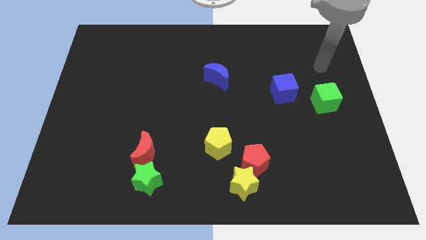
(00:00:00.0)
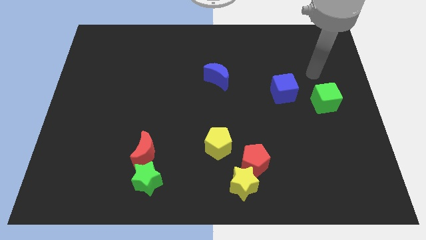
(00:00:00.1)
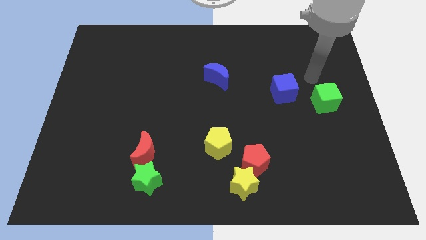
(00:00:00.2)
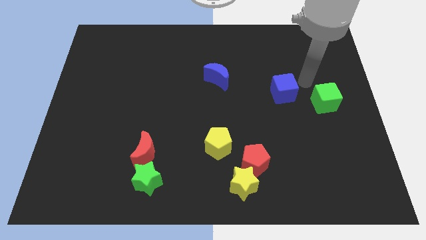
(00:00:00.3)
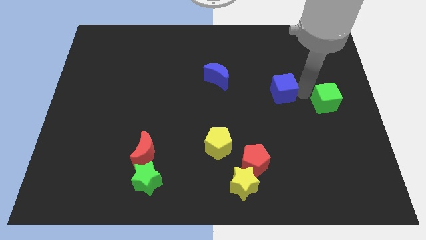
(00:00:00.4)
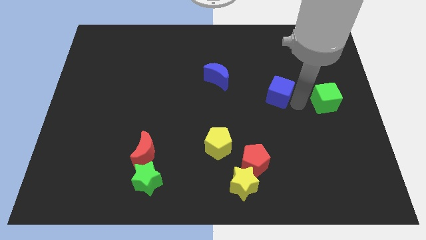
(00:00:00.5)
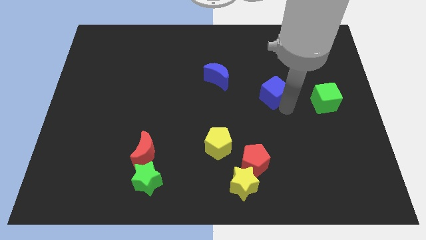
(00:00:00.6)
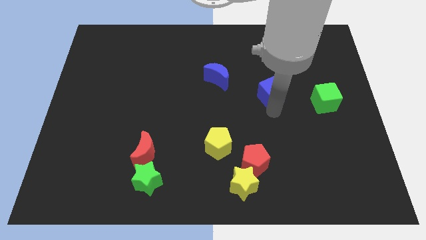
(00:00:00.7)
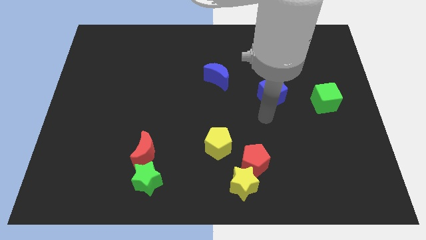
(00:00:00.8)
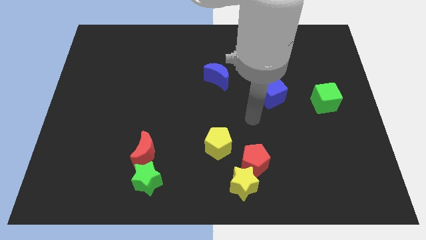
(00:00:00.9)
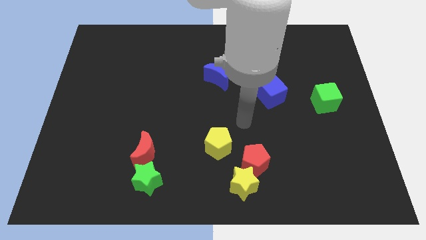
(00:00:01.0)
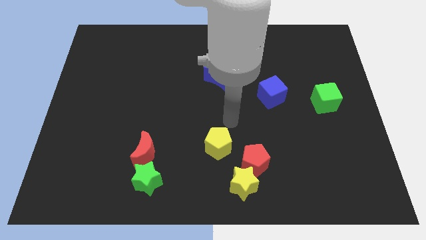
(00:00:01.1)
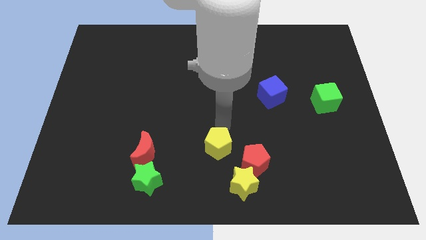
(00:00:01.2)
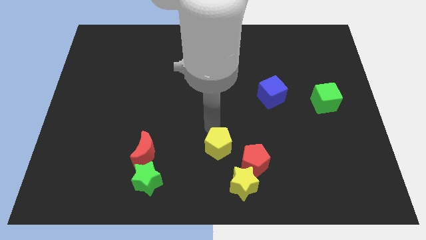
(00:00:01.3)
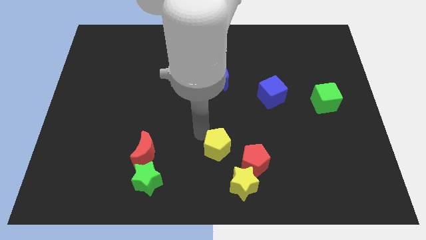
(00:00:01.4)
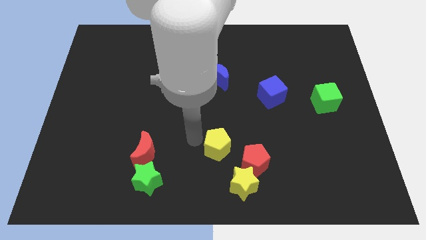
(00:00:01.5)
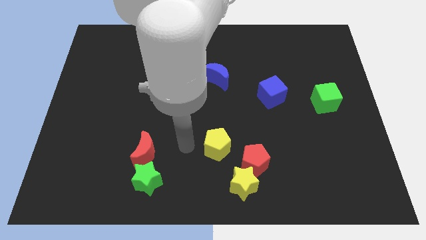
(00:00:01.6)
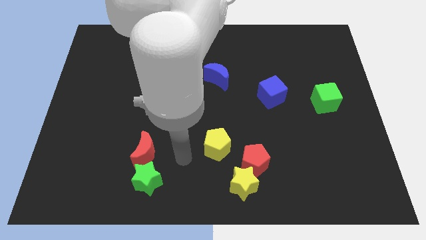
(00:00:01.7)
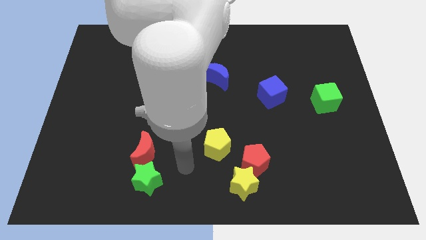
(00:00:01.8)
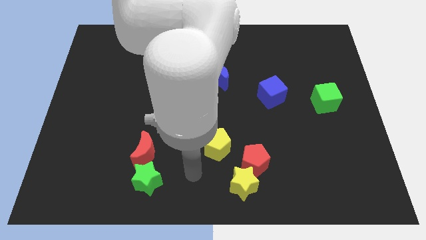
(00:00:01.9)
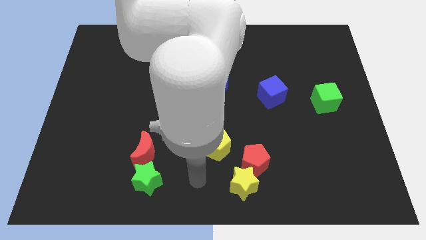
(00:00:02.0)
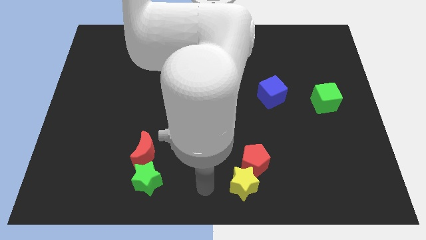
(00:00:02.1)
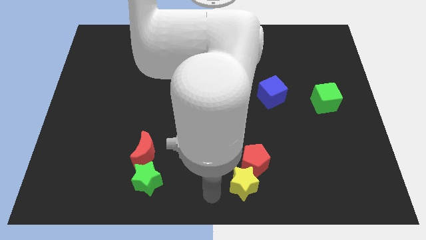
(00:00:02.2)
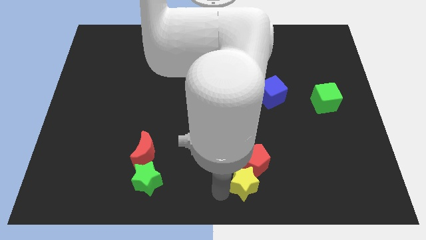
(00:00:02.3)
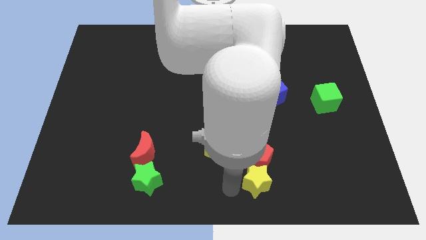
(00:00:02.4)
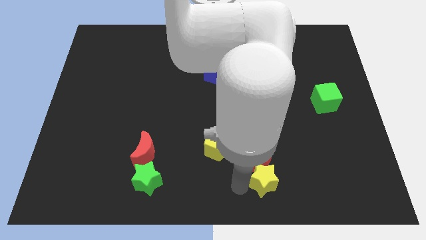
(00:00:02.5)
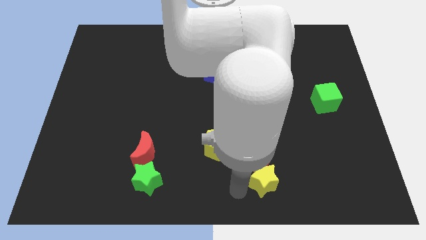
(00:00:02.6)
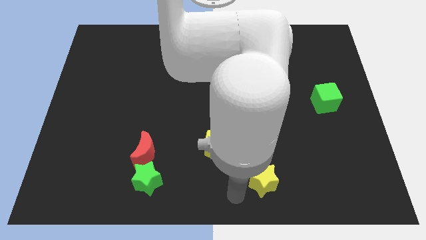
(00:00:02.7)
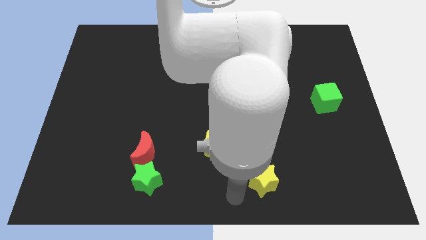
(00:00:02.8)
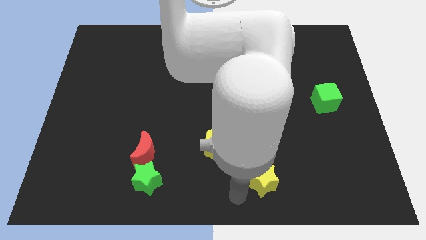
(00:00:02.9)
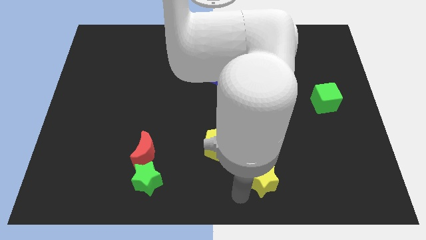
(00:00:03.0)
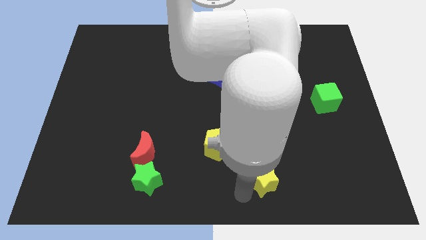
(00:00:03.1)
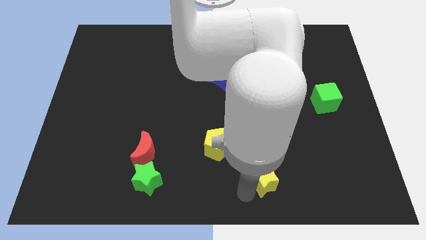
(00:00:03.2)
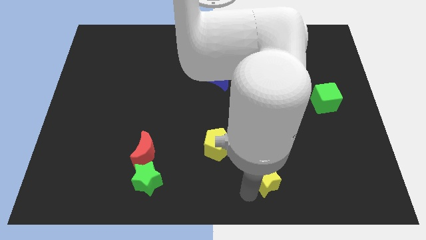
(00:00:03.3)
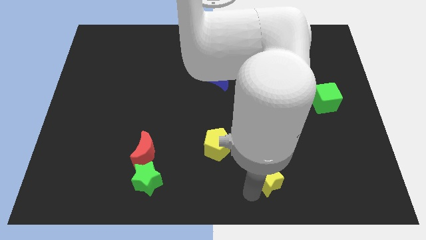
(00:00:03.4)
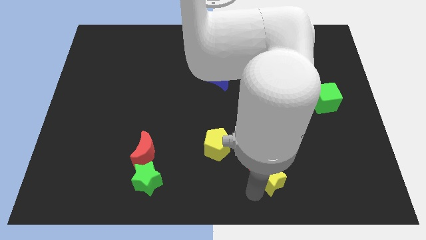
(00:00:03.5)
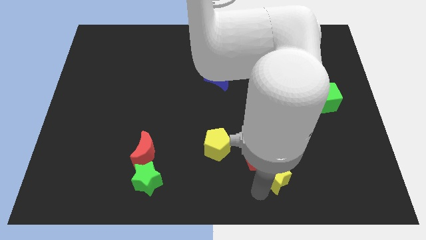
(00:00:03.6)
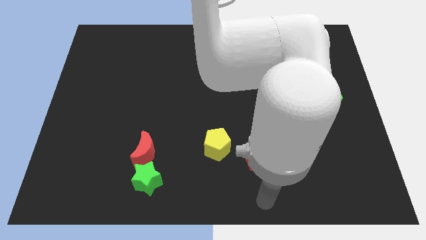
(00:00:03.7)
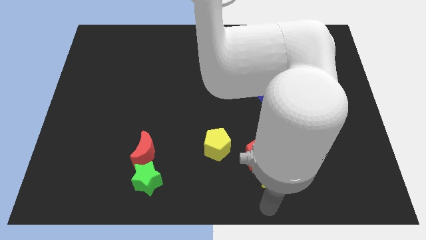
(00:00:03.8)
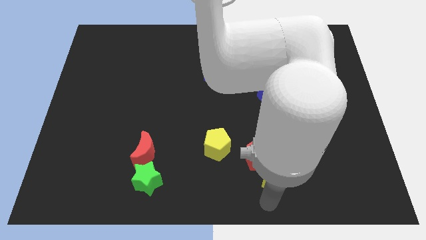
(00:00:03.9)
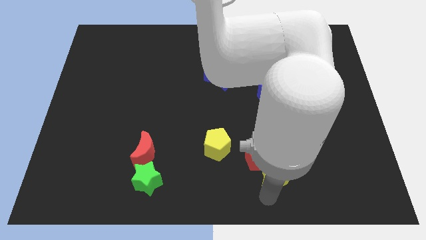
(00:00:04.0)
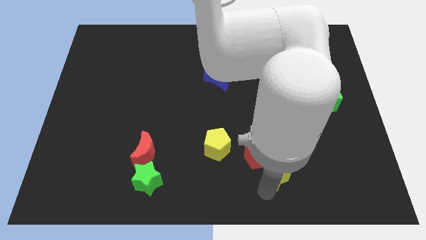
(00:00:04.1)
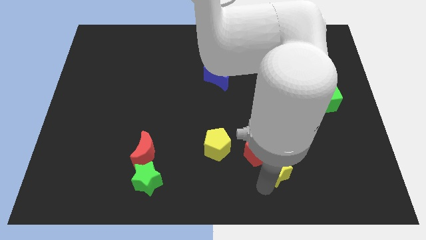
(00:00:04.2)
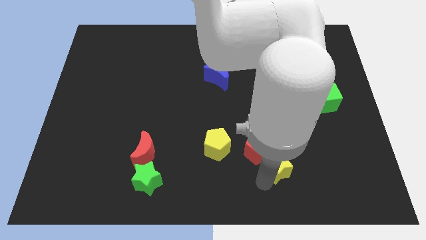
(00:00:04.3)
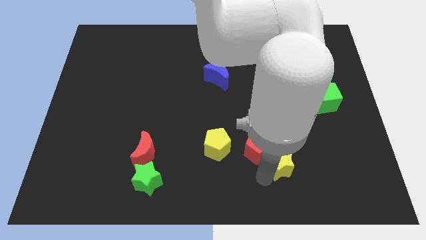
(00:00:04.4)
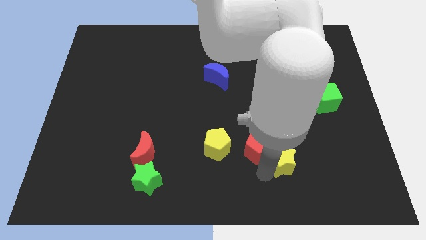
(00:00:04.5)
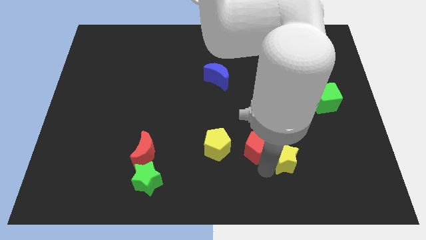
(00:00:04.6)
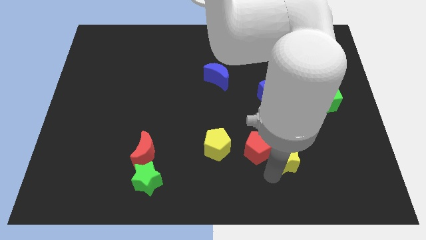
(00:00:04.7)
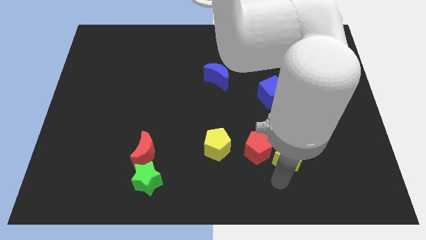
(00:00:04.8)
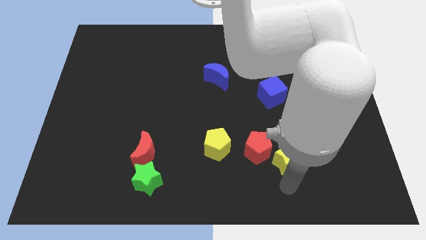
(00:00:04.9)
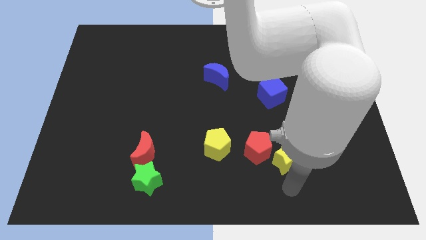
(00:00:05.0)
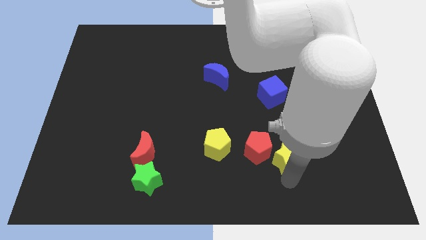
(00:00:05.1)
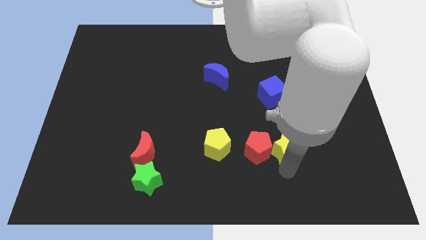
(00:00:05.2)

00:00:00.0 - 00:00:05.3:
move the yellow star to the top right side of the red pentagon

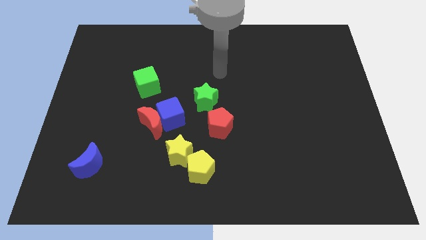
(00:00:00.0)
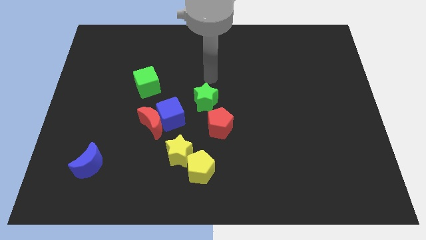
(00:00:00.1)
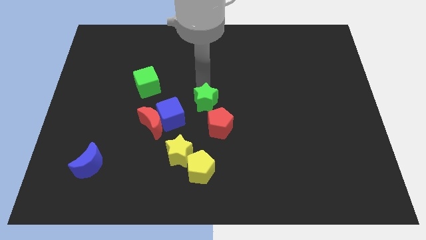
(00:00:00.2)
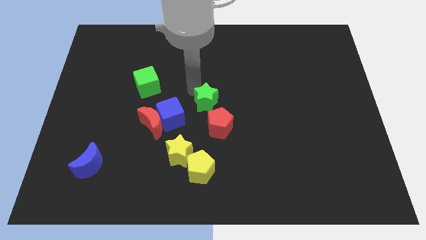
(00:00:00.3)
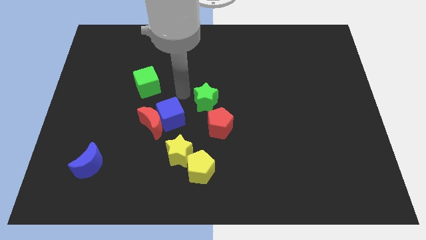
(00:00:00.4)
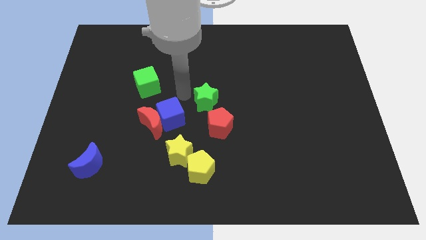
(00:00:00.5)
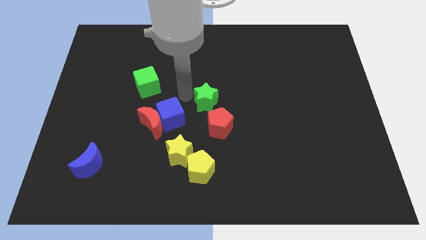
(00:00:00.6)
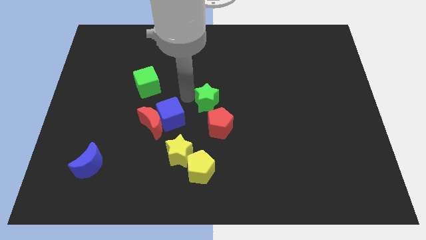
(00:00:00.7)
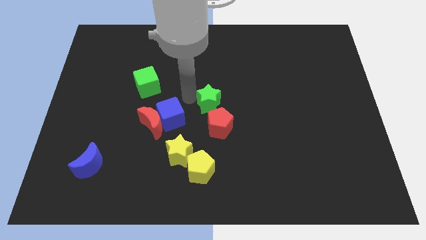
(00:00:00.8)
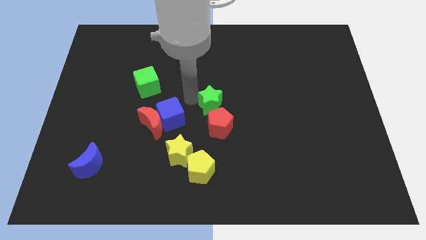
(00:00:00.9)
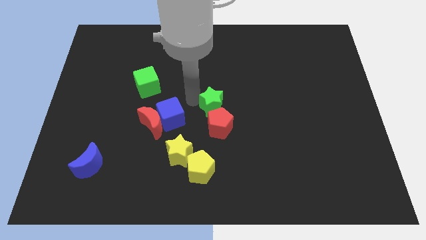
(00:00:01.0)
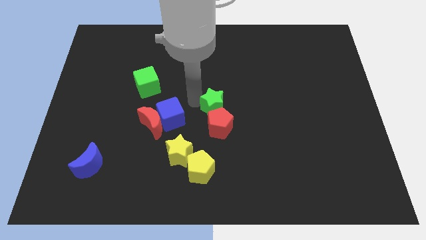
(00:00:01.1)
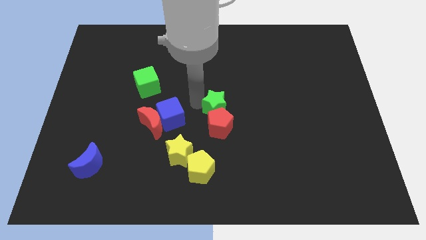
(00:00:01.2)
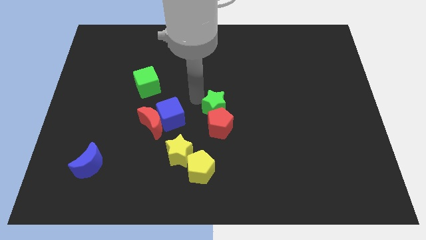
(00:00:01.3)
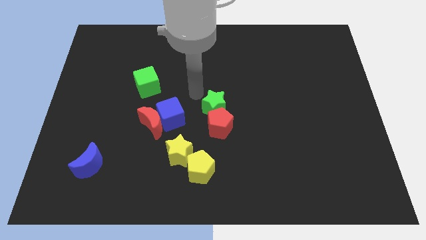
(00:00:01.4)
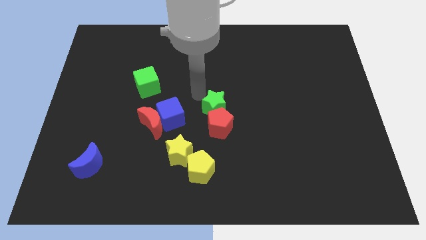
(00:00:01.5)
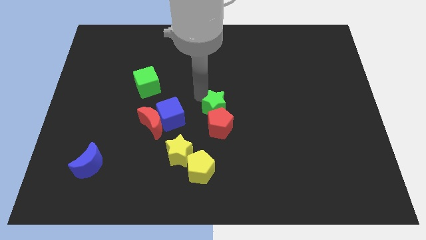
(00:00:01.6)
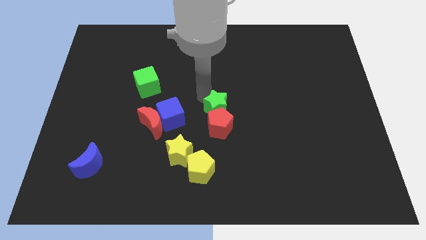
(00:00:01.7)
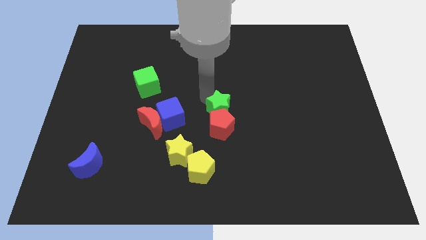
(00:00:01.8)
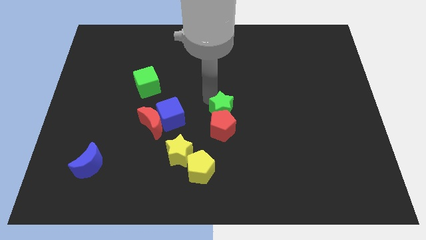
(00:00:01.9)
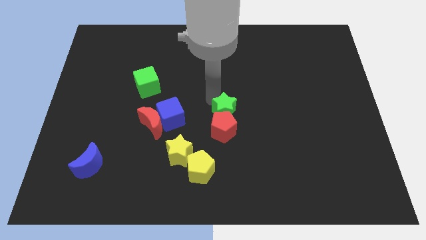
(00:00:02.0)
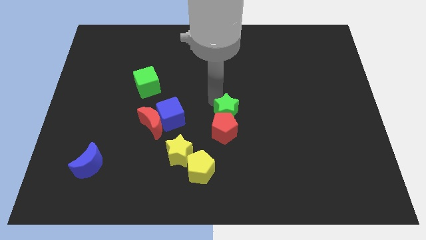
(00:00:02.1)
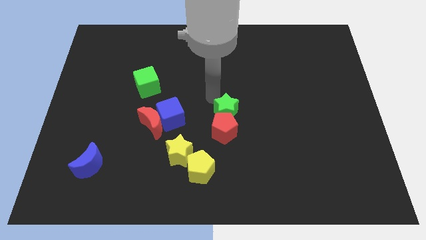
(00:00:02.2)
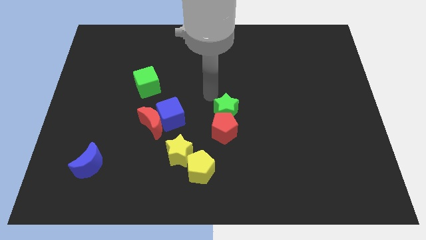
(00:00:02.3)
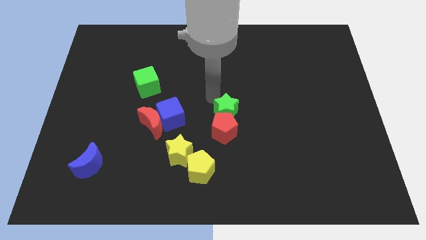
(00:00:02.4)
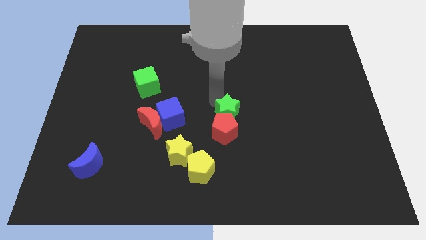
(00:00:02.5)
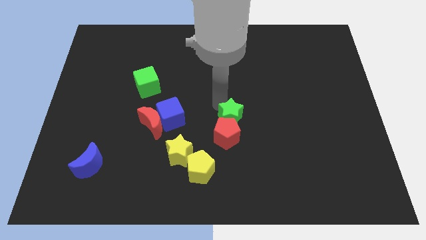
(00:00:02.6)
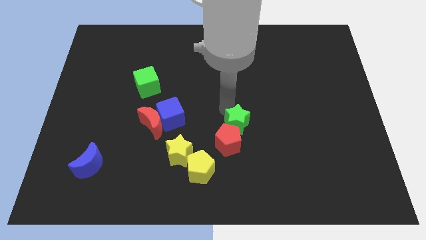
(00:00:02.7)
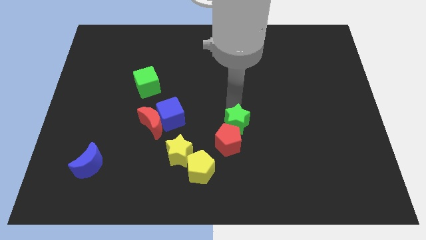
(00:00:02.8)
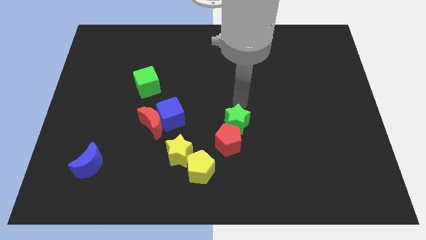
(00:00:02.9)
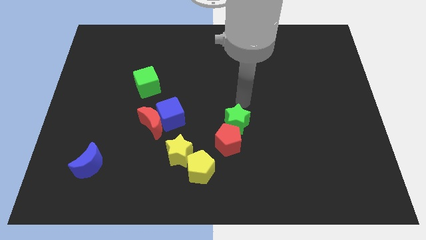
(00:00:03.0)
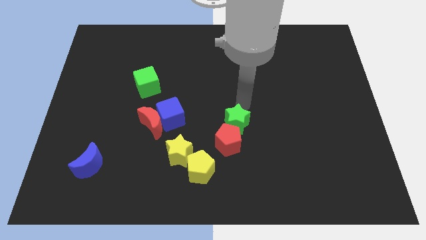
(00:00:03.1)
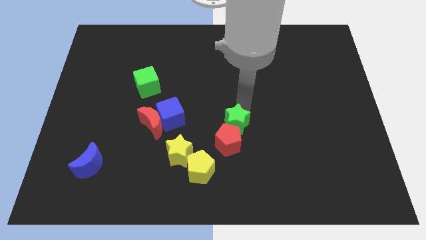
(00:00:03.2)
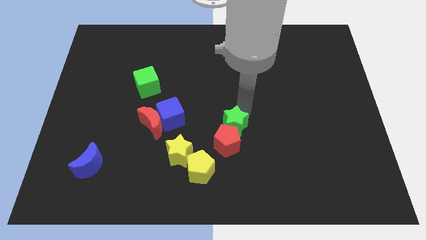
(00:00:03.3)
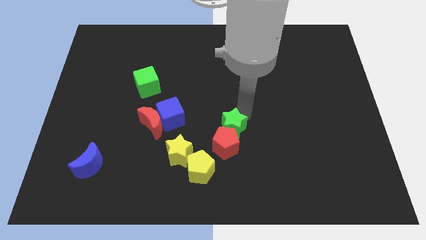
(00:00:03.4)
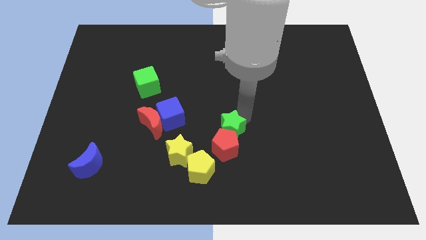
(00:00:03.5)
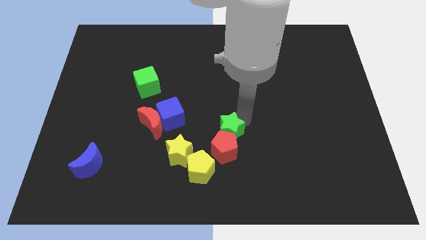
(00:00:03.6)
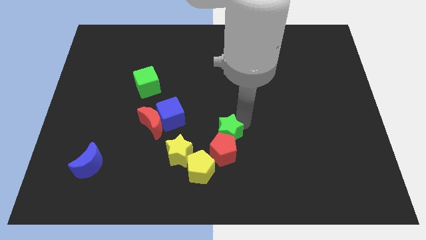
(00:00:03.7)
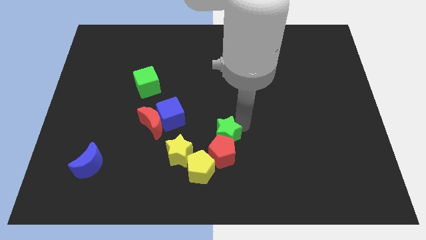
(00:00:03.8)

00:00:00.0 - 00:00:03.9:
push the green star to the right of the yellow star
